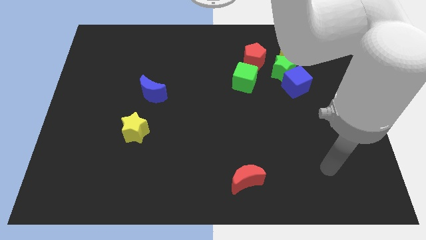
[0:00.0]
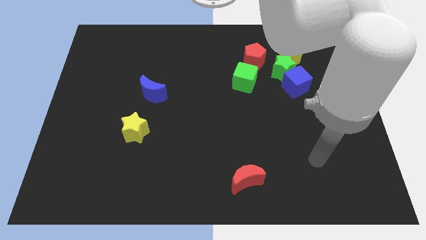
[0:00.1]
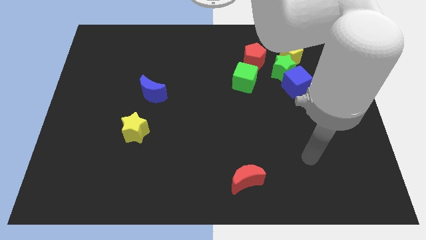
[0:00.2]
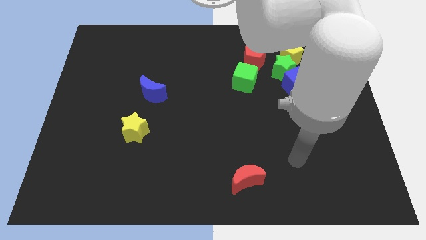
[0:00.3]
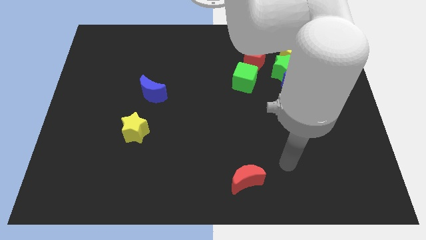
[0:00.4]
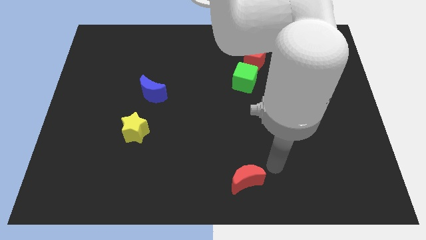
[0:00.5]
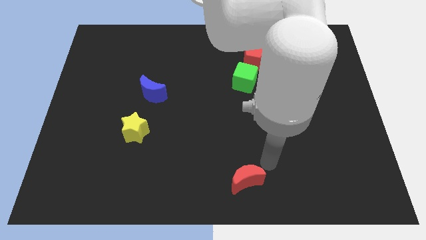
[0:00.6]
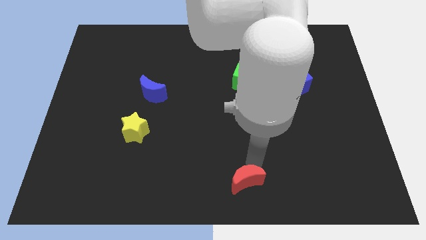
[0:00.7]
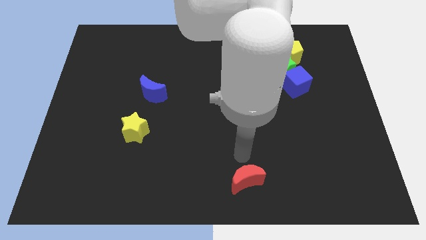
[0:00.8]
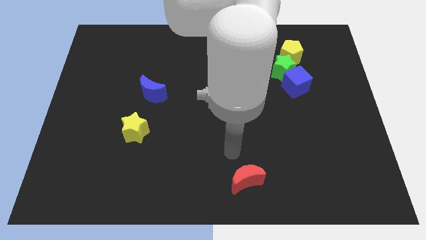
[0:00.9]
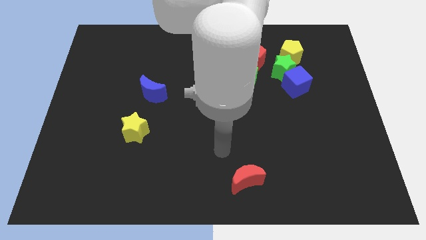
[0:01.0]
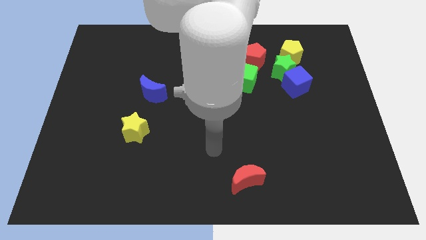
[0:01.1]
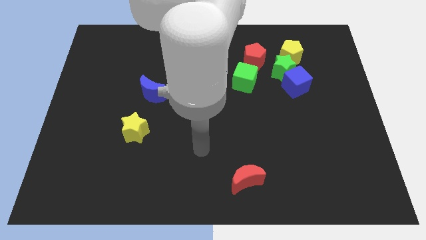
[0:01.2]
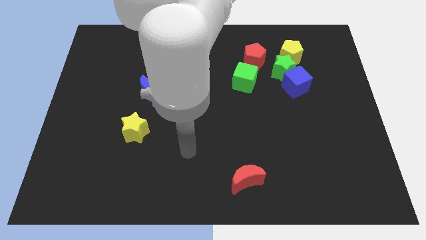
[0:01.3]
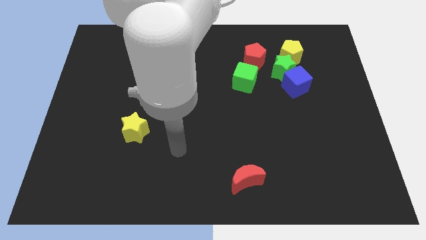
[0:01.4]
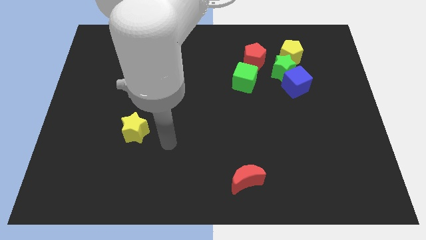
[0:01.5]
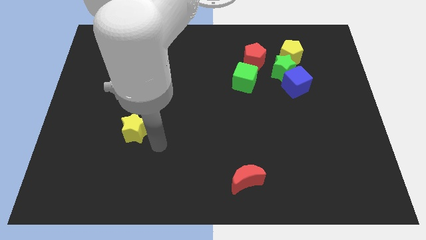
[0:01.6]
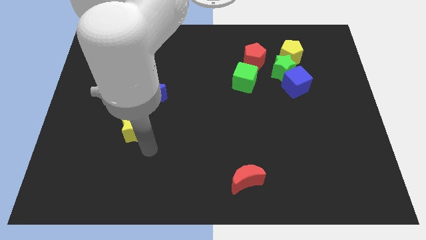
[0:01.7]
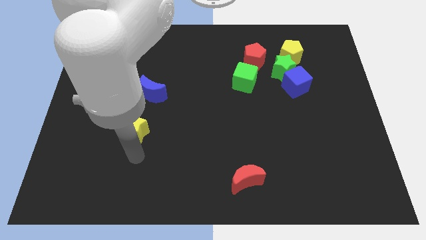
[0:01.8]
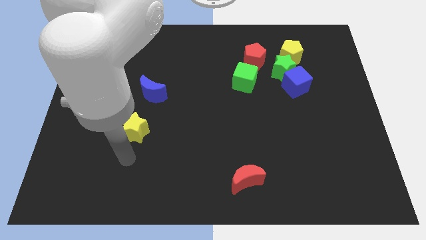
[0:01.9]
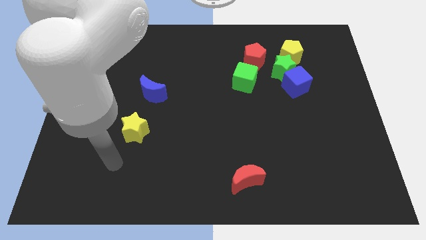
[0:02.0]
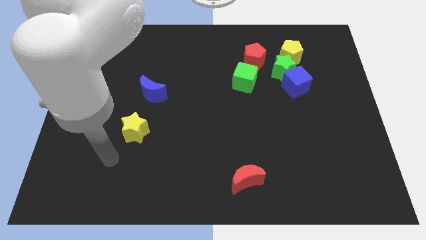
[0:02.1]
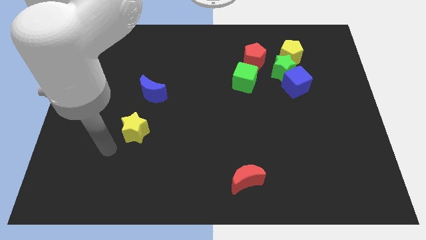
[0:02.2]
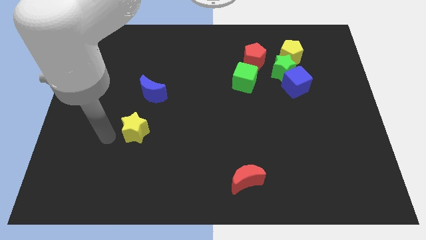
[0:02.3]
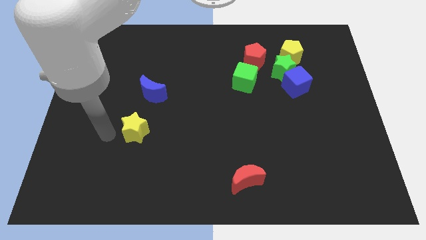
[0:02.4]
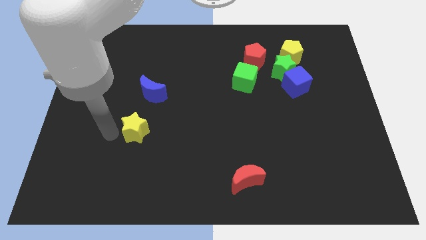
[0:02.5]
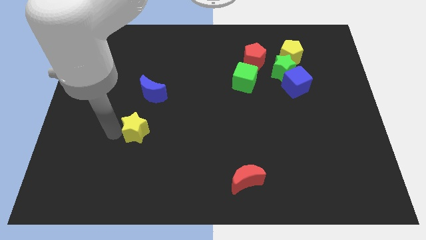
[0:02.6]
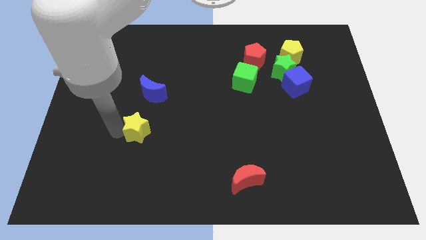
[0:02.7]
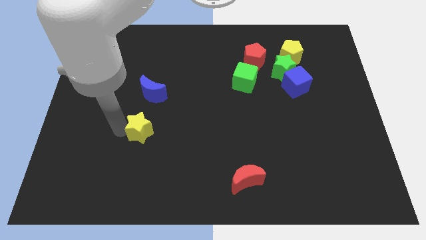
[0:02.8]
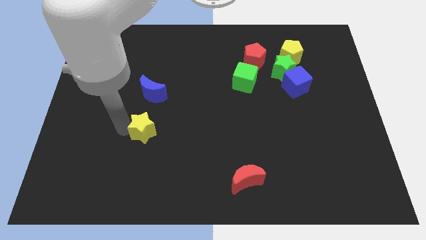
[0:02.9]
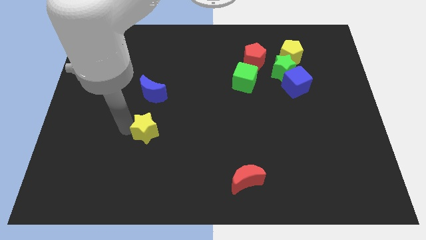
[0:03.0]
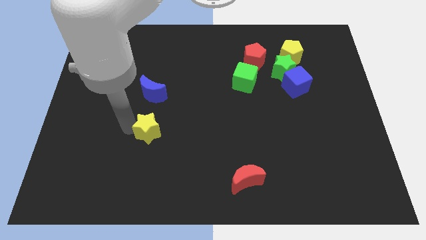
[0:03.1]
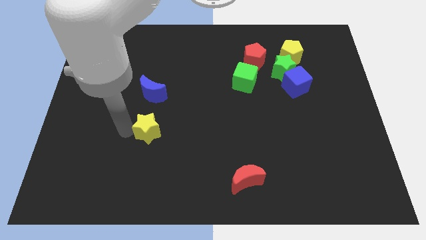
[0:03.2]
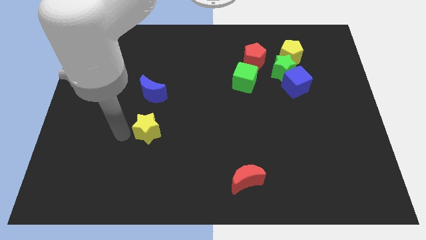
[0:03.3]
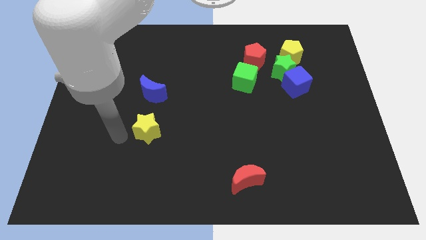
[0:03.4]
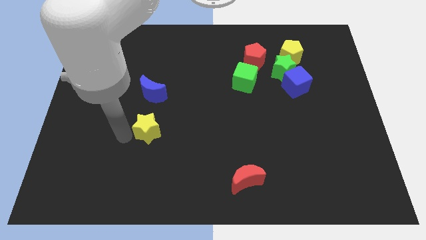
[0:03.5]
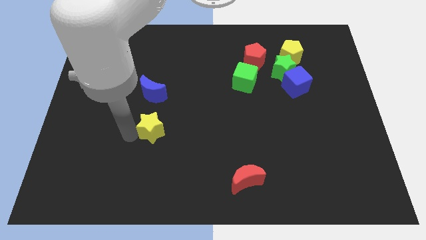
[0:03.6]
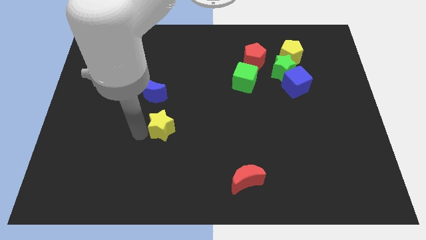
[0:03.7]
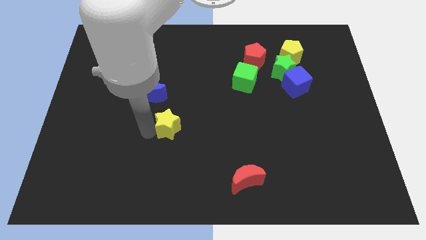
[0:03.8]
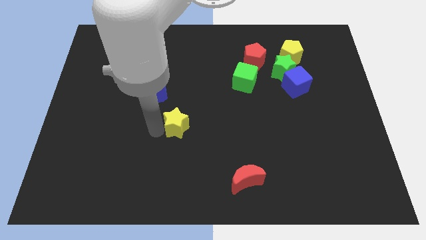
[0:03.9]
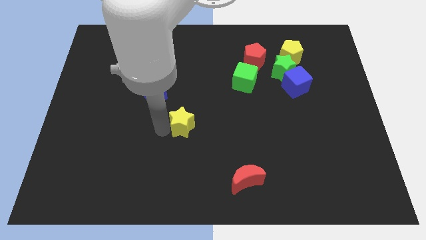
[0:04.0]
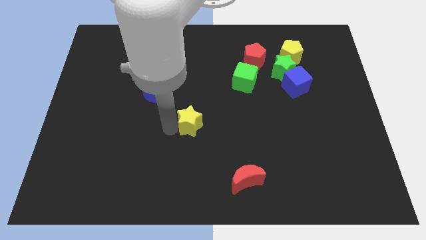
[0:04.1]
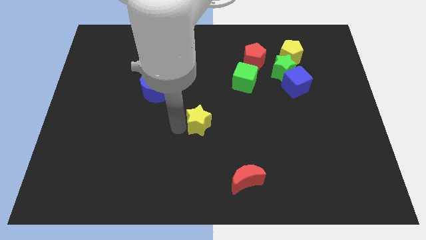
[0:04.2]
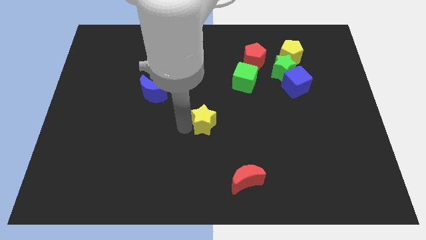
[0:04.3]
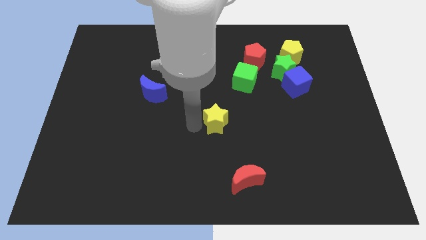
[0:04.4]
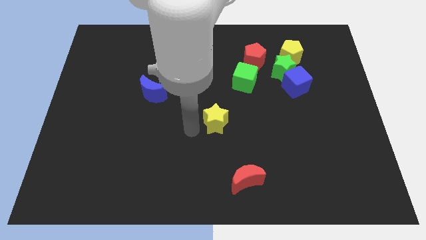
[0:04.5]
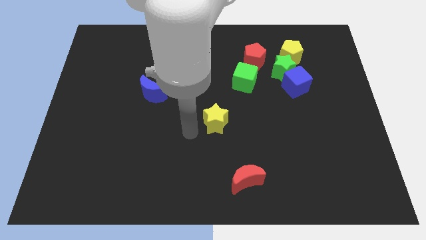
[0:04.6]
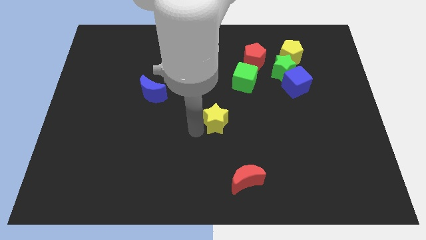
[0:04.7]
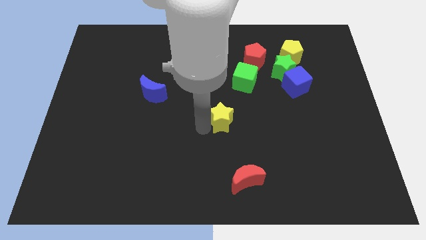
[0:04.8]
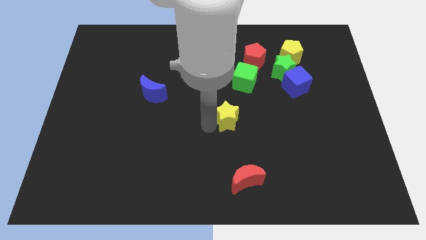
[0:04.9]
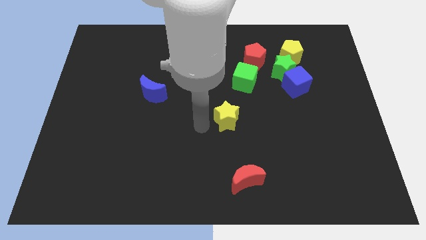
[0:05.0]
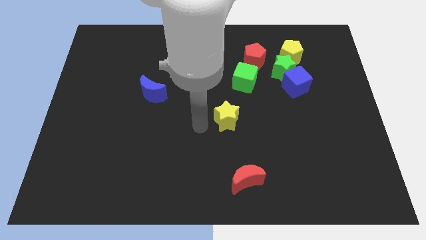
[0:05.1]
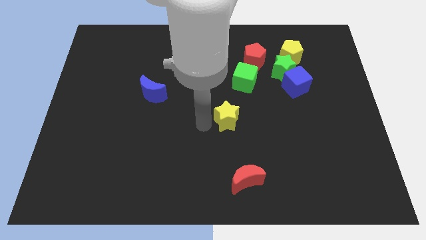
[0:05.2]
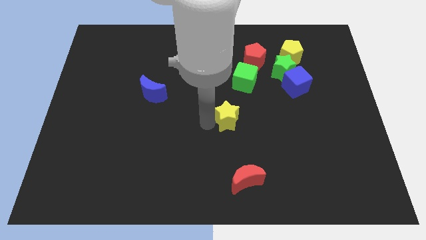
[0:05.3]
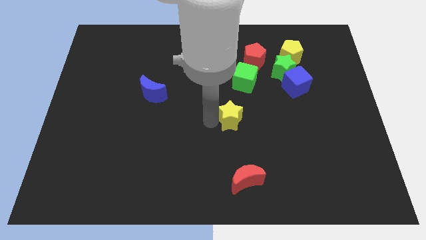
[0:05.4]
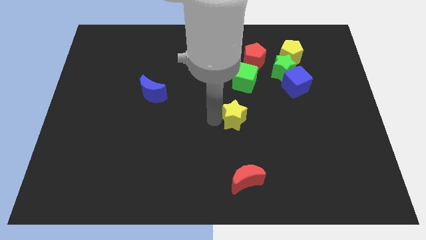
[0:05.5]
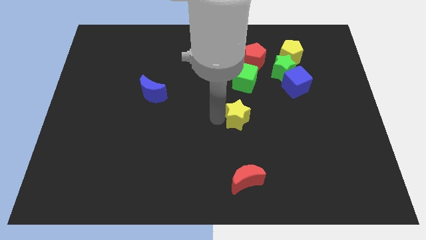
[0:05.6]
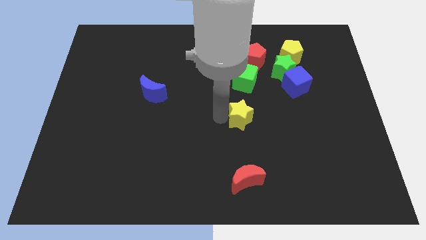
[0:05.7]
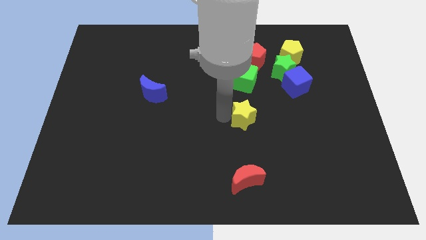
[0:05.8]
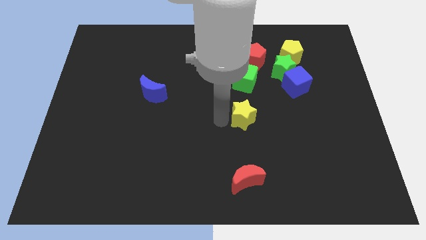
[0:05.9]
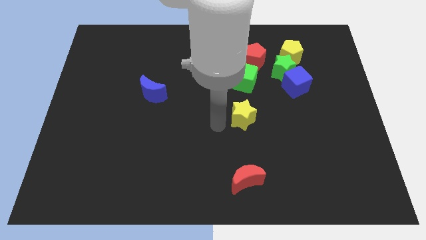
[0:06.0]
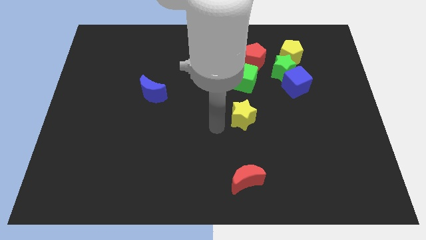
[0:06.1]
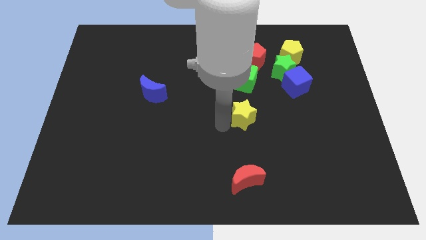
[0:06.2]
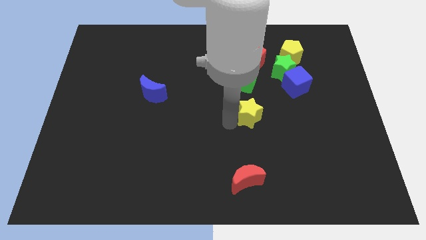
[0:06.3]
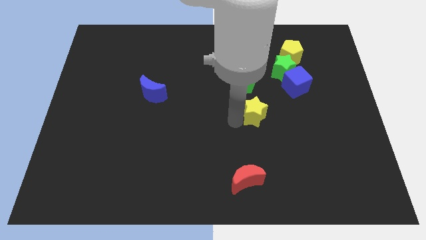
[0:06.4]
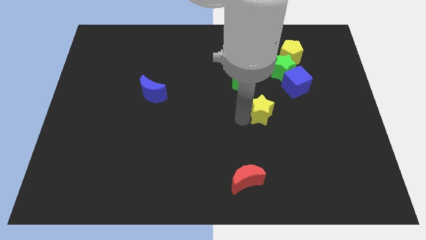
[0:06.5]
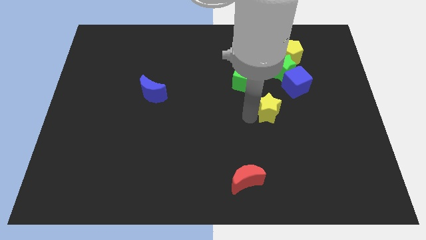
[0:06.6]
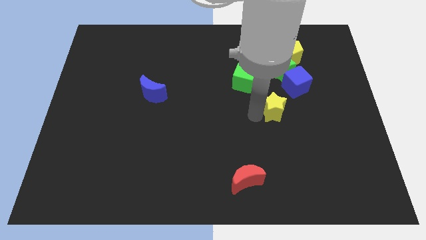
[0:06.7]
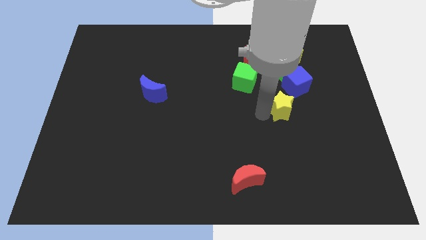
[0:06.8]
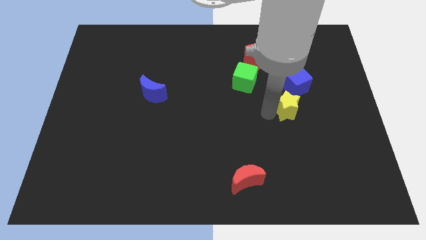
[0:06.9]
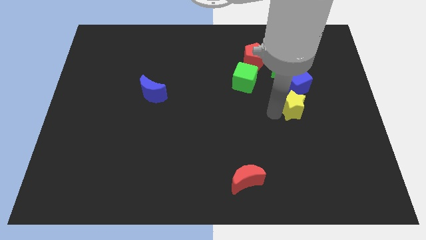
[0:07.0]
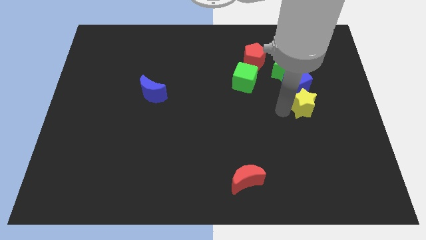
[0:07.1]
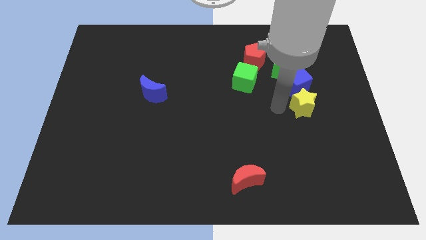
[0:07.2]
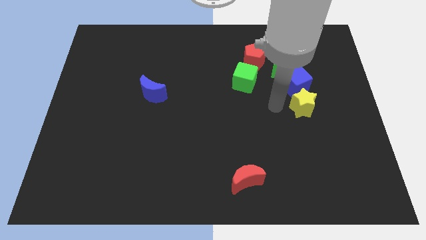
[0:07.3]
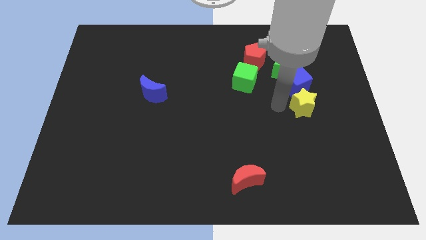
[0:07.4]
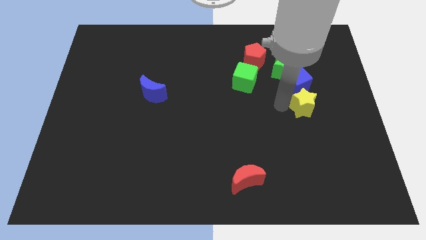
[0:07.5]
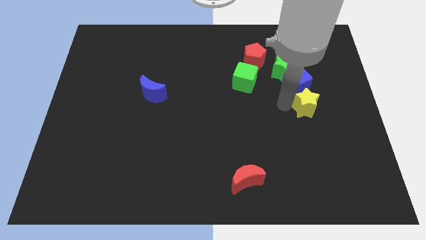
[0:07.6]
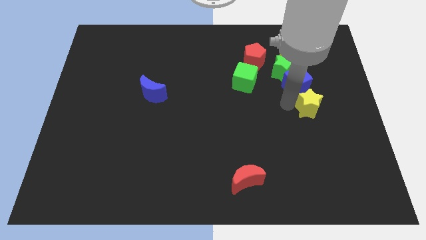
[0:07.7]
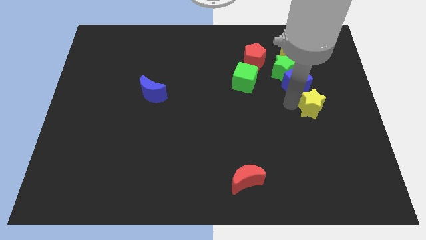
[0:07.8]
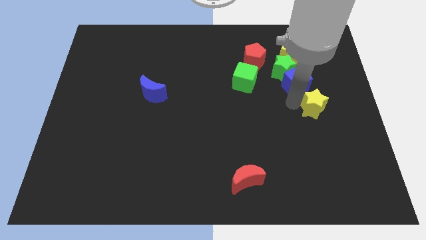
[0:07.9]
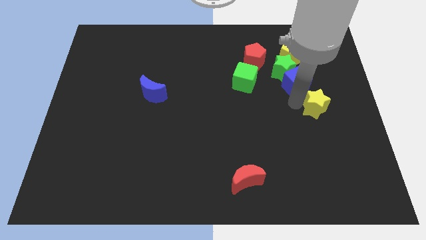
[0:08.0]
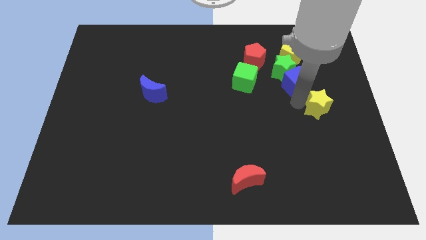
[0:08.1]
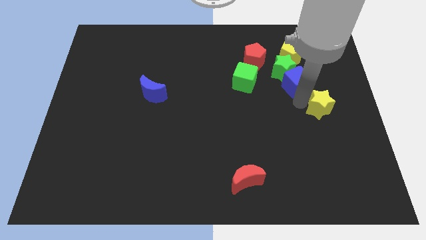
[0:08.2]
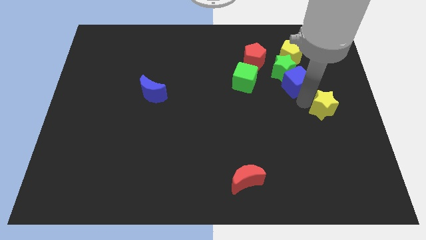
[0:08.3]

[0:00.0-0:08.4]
put the yellow star to the center right
